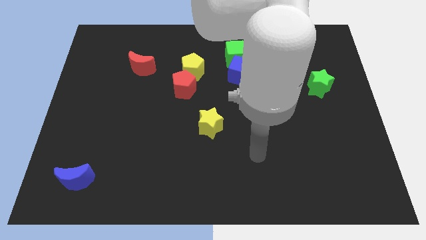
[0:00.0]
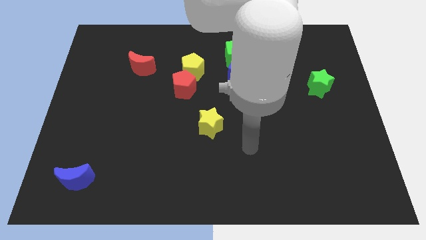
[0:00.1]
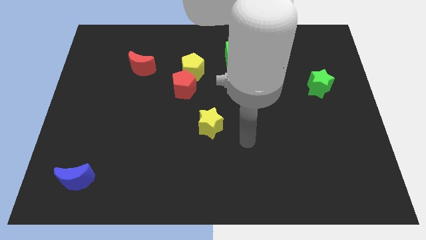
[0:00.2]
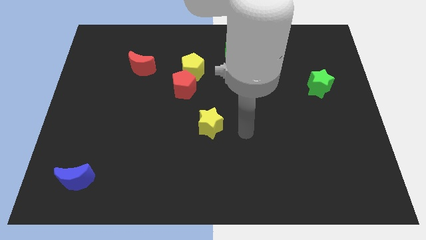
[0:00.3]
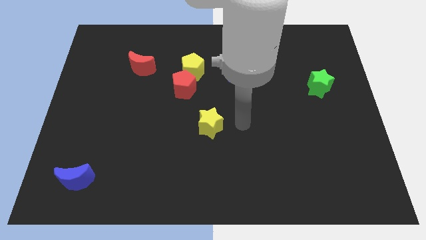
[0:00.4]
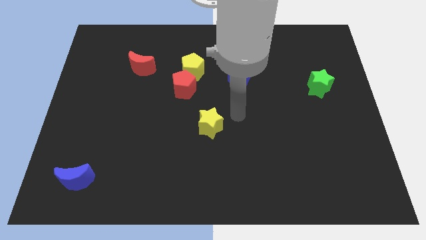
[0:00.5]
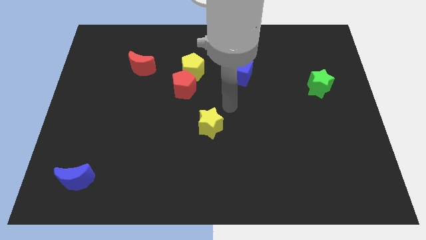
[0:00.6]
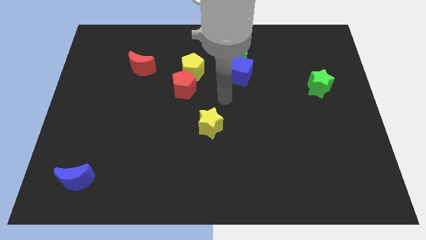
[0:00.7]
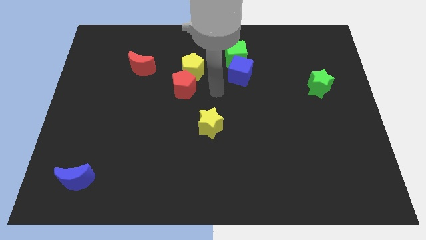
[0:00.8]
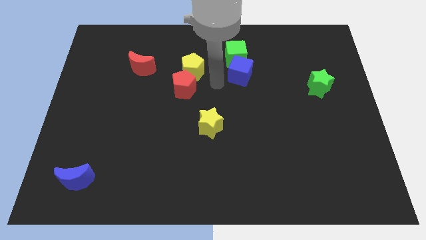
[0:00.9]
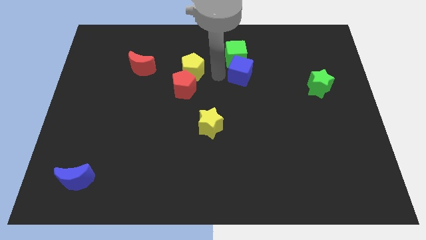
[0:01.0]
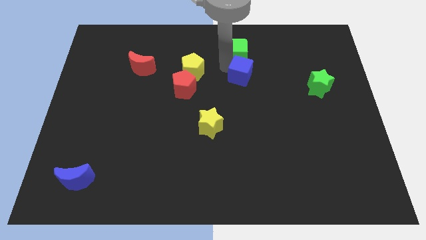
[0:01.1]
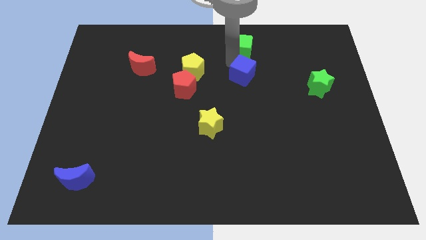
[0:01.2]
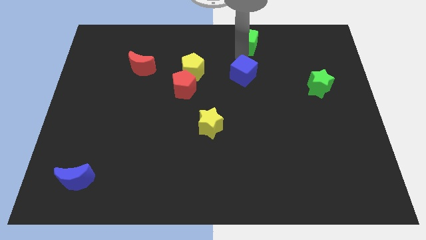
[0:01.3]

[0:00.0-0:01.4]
move the blue cube away from the green cube

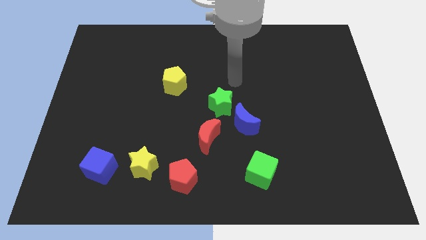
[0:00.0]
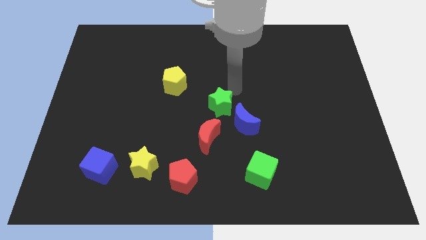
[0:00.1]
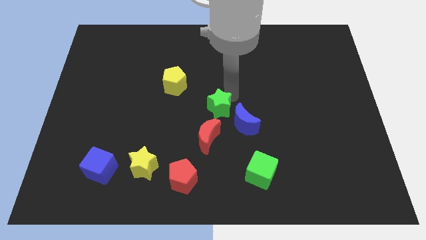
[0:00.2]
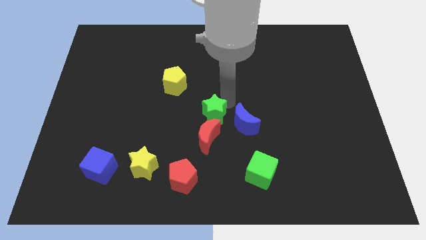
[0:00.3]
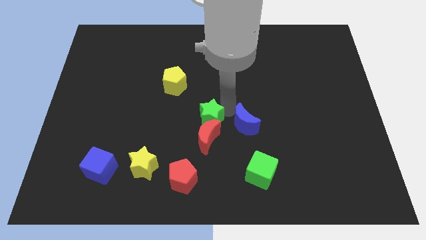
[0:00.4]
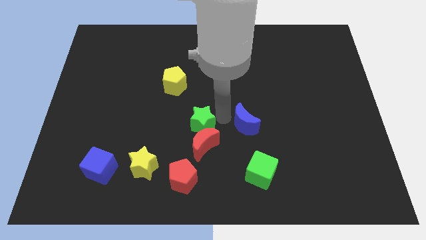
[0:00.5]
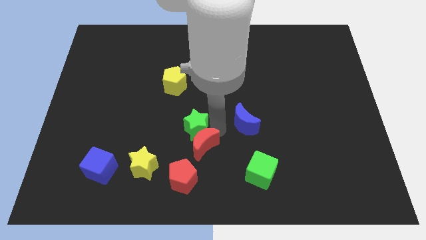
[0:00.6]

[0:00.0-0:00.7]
pull the blue moon apart from the green star and red moon

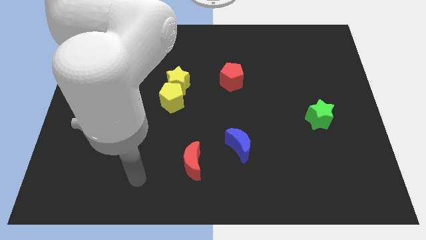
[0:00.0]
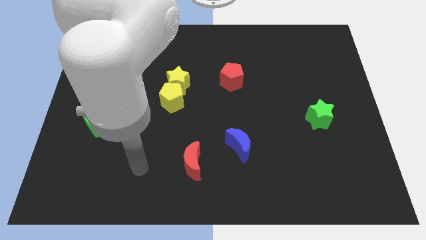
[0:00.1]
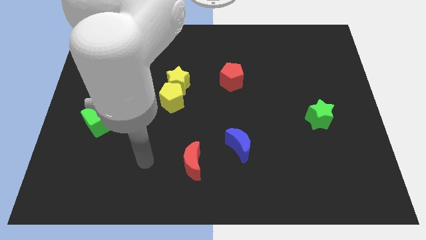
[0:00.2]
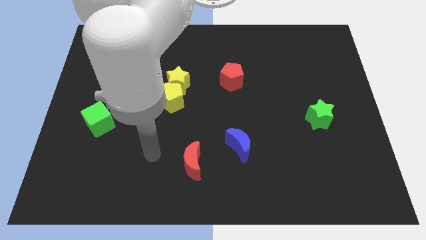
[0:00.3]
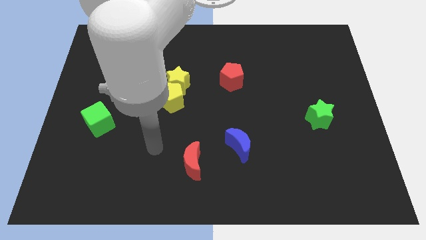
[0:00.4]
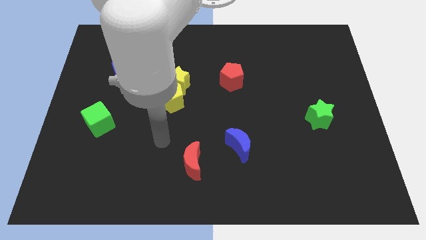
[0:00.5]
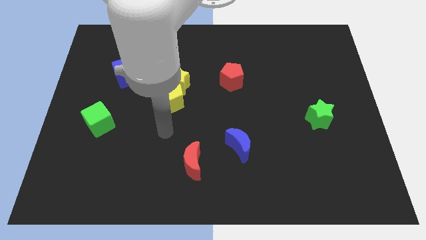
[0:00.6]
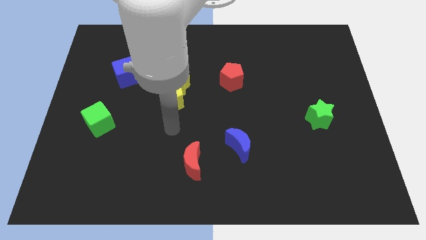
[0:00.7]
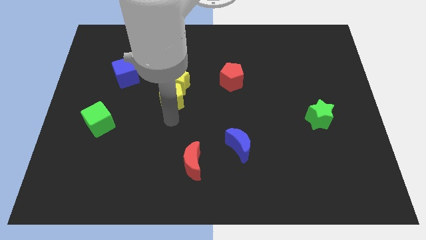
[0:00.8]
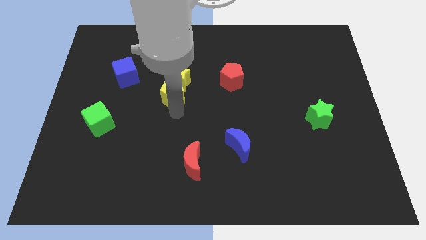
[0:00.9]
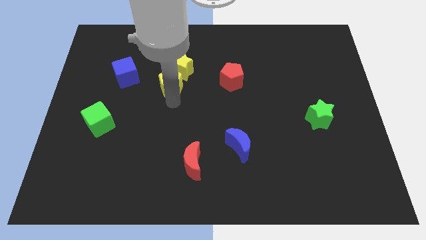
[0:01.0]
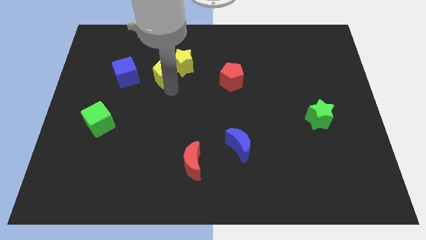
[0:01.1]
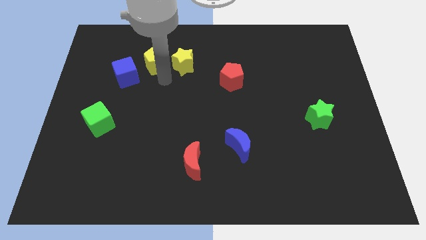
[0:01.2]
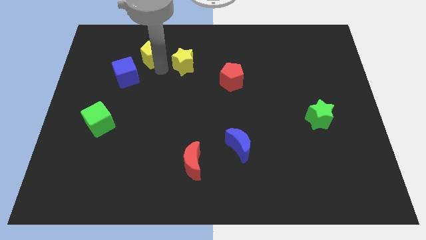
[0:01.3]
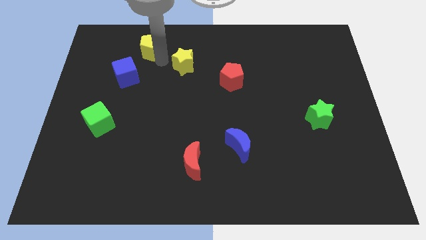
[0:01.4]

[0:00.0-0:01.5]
move the yellow star away from the yellow pentagon

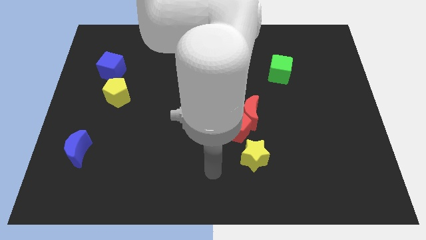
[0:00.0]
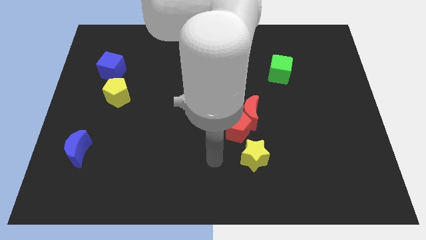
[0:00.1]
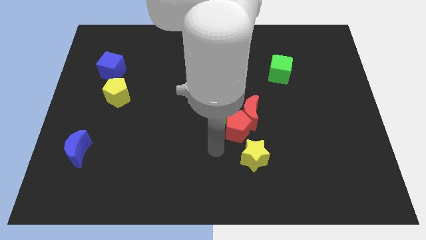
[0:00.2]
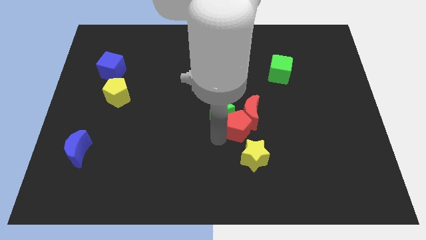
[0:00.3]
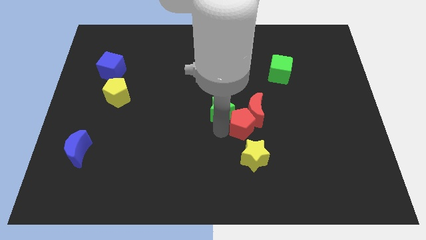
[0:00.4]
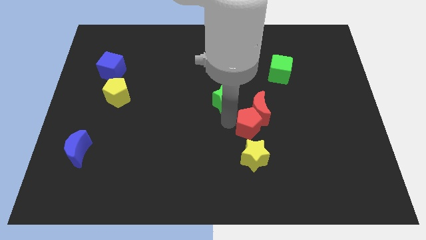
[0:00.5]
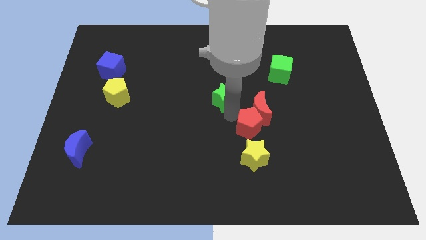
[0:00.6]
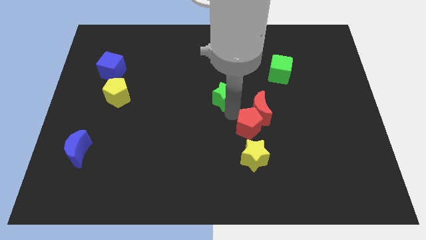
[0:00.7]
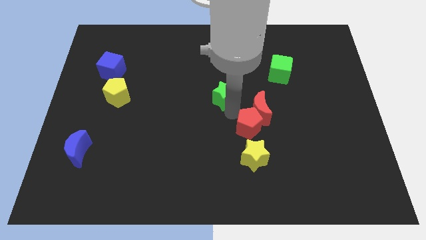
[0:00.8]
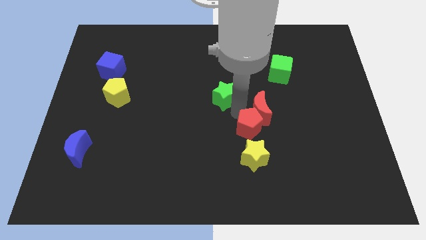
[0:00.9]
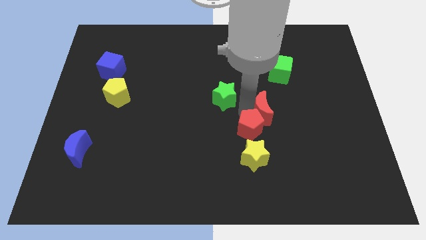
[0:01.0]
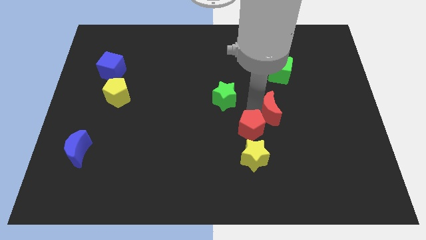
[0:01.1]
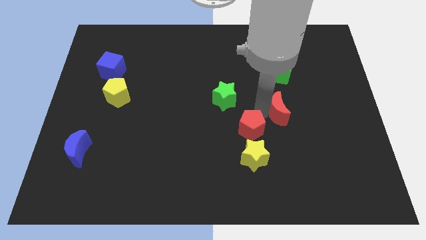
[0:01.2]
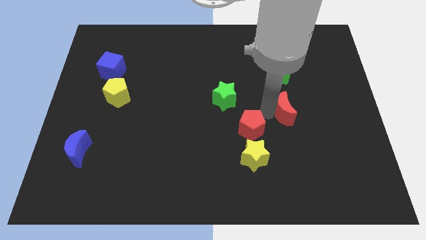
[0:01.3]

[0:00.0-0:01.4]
move the red moon away from the red pentagon and green star

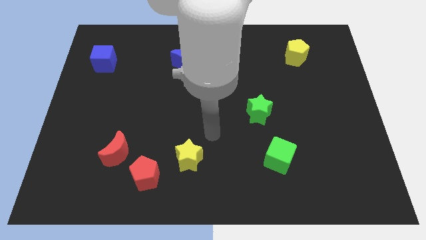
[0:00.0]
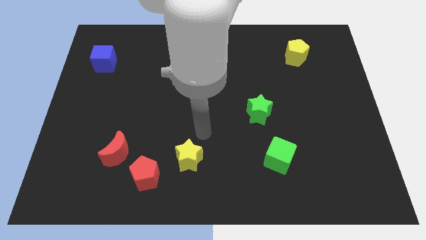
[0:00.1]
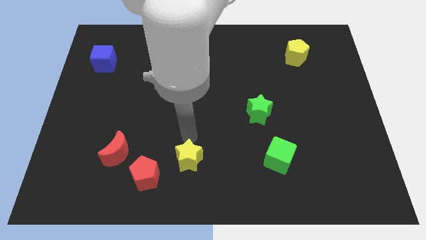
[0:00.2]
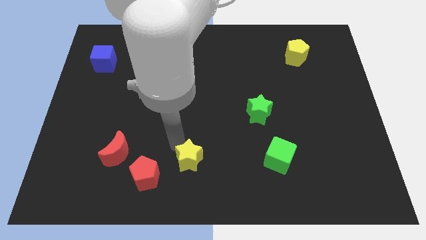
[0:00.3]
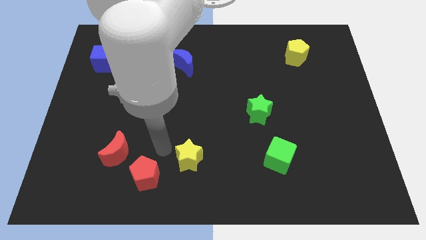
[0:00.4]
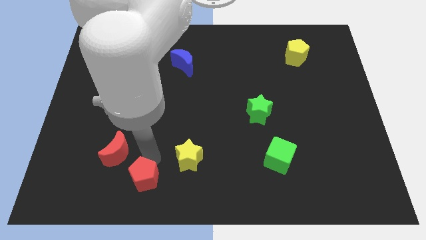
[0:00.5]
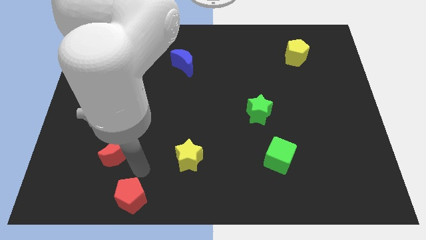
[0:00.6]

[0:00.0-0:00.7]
pull the red moon apart from the red pentagon

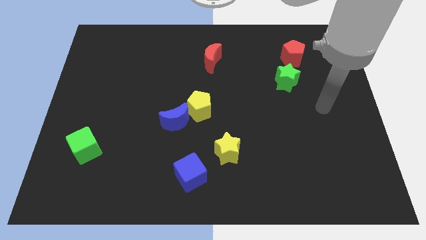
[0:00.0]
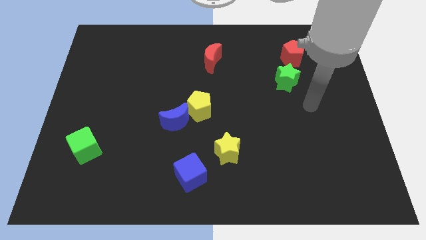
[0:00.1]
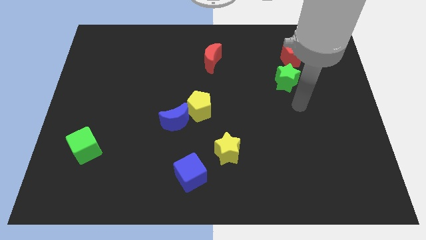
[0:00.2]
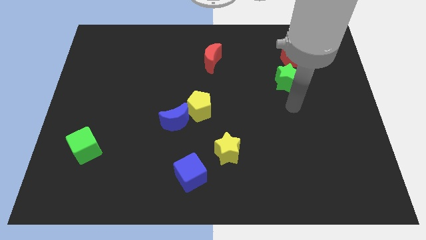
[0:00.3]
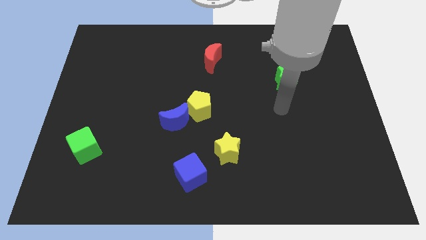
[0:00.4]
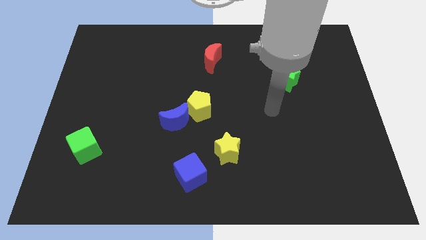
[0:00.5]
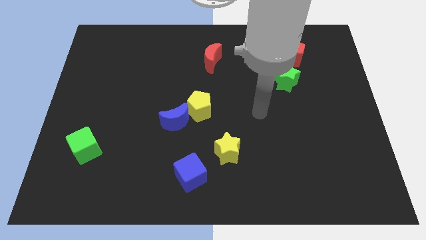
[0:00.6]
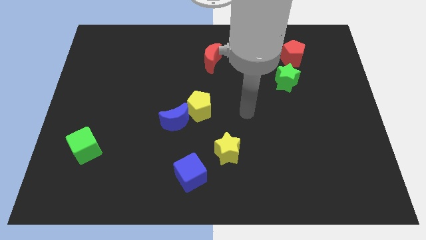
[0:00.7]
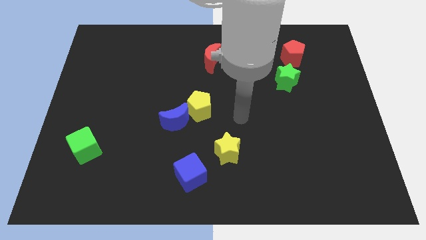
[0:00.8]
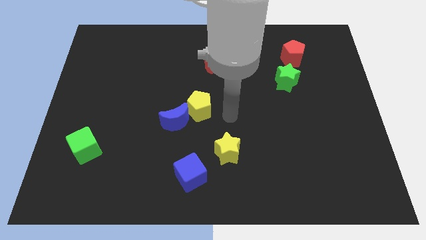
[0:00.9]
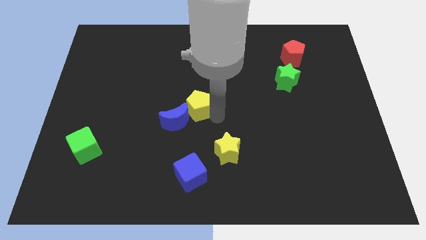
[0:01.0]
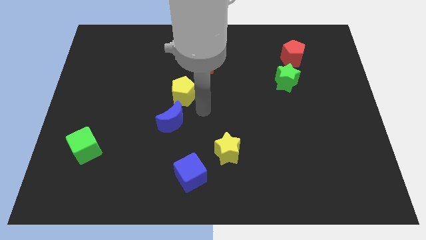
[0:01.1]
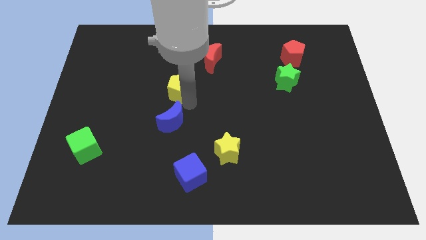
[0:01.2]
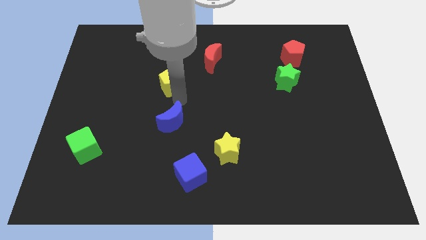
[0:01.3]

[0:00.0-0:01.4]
move the blue moon away from the yellow pentagon

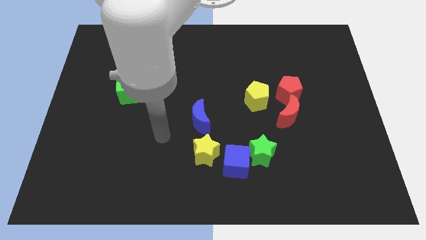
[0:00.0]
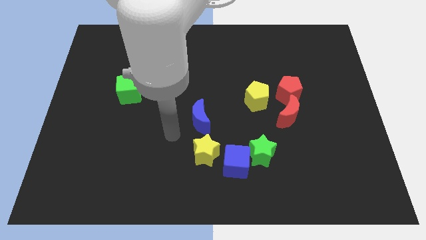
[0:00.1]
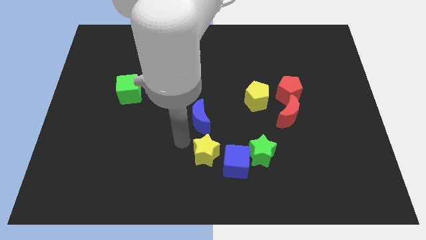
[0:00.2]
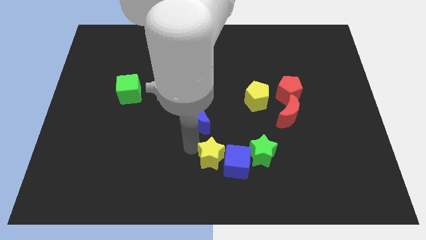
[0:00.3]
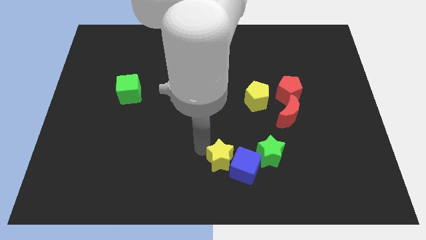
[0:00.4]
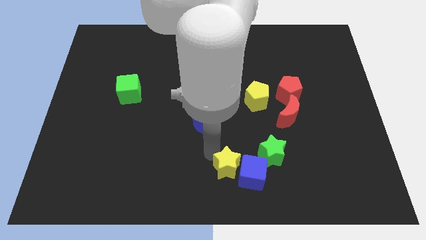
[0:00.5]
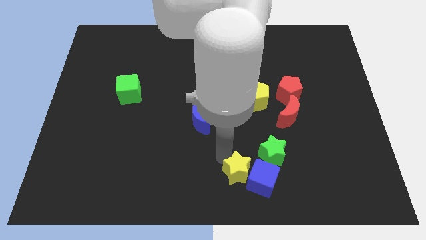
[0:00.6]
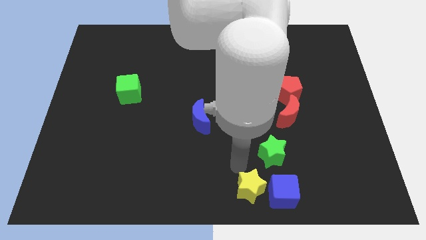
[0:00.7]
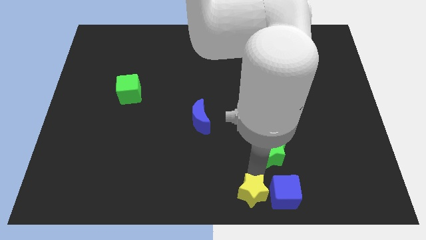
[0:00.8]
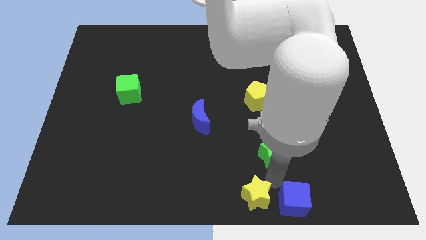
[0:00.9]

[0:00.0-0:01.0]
pull the green star apart from the blue cube

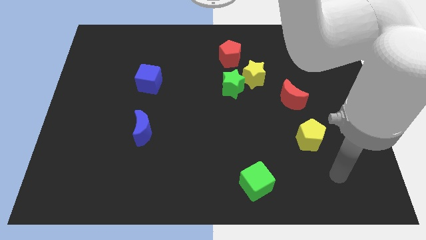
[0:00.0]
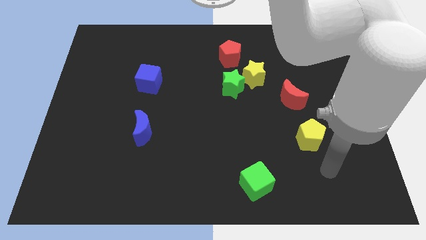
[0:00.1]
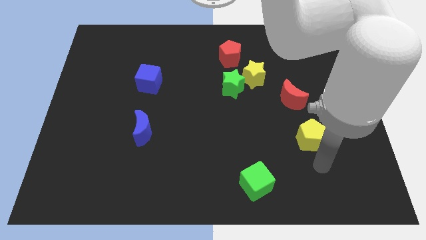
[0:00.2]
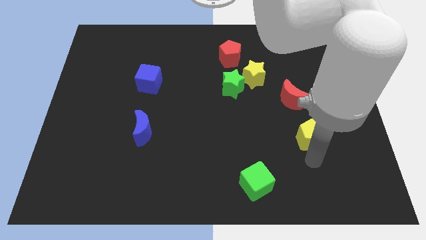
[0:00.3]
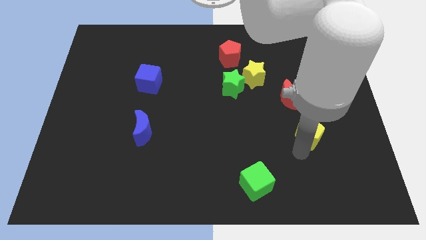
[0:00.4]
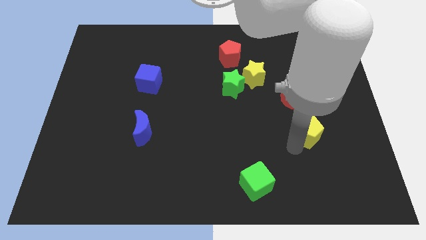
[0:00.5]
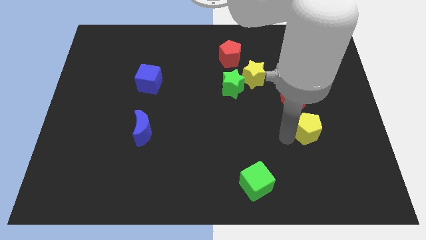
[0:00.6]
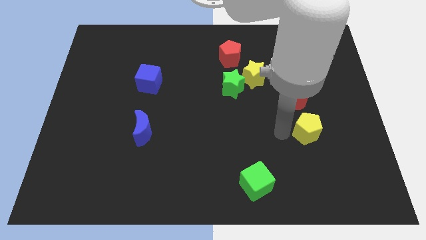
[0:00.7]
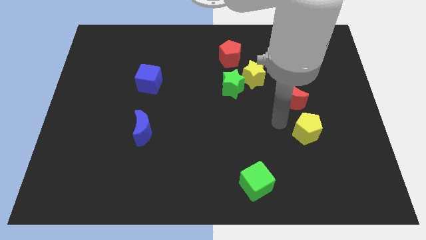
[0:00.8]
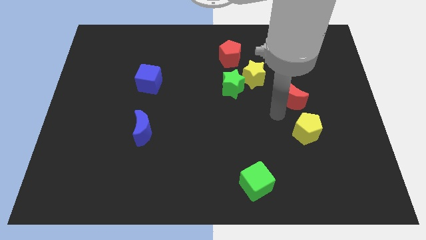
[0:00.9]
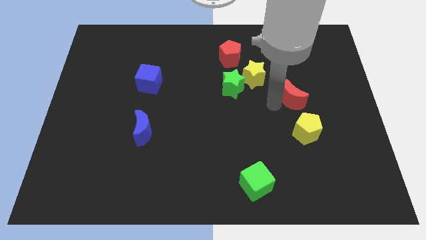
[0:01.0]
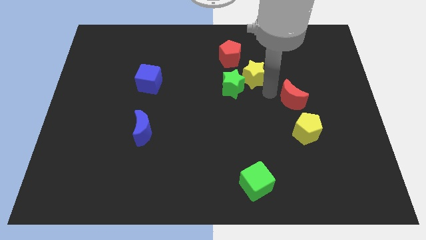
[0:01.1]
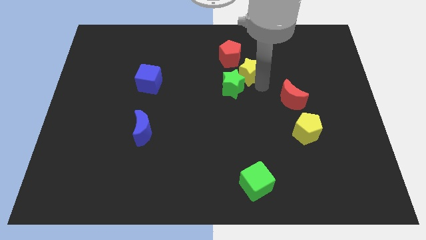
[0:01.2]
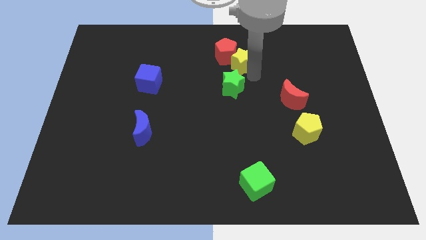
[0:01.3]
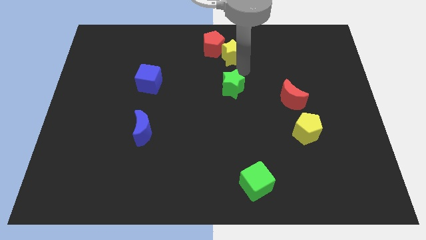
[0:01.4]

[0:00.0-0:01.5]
separate the green star from the yellow star
